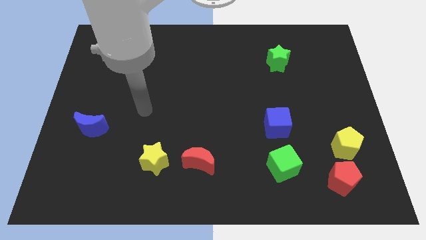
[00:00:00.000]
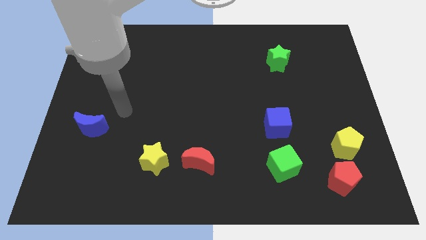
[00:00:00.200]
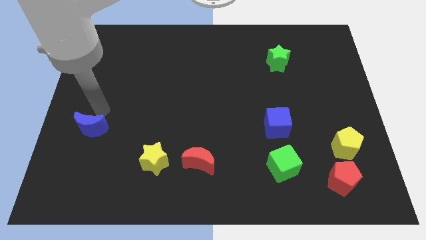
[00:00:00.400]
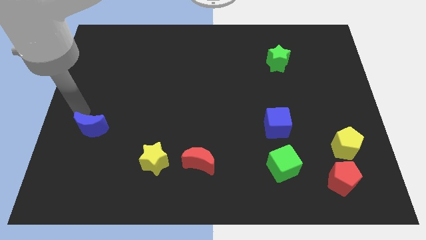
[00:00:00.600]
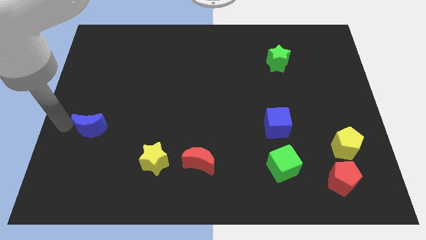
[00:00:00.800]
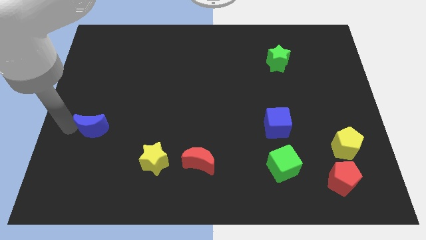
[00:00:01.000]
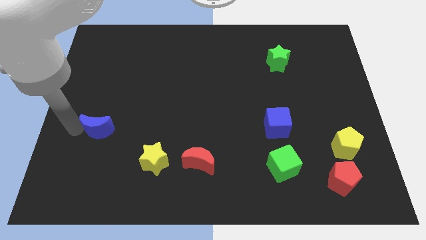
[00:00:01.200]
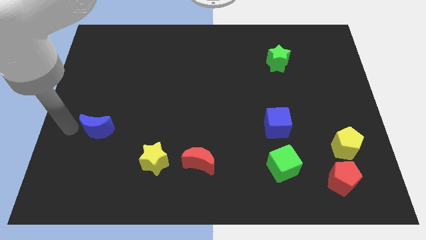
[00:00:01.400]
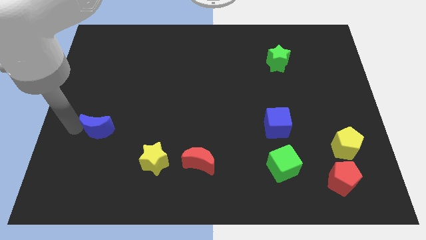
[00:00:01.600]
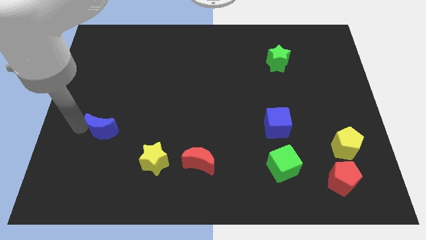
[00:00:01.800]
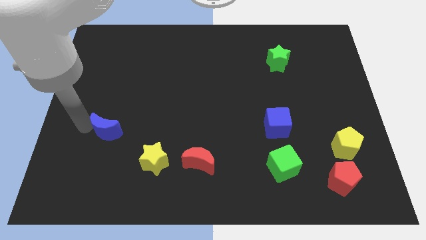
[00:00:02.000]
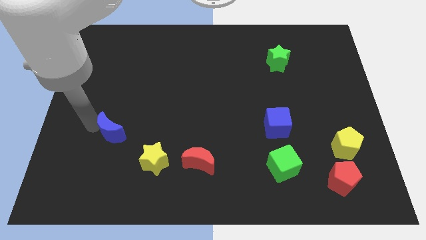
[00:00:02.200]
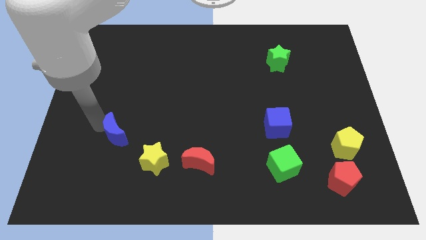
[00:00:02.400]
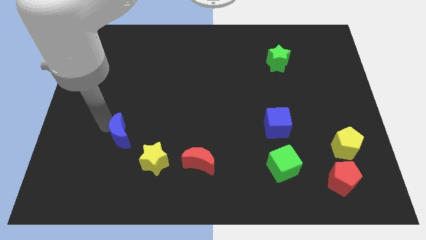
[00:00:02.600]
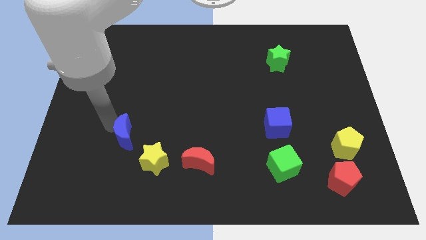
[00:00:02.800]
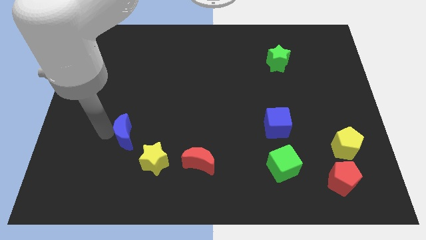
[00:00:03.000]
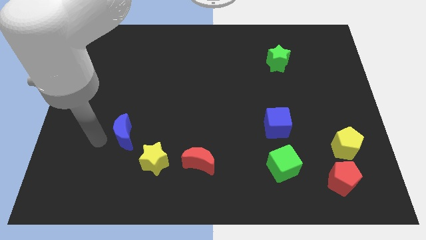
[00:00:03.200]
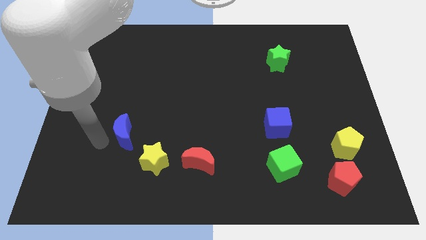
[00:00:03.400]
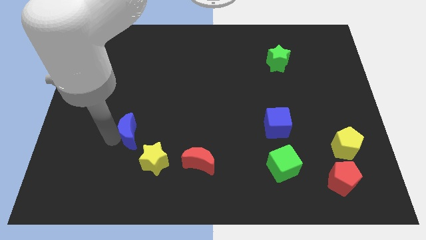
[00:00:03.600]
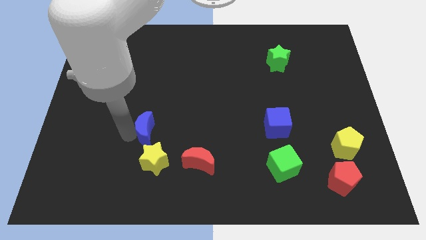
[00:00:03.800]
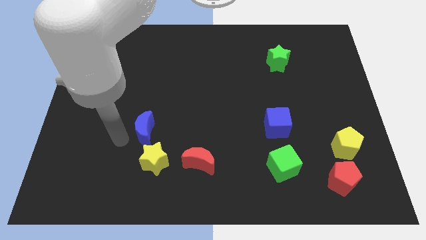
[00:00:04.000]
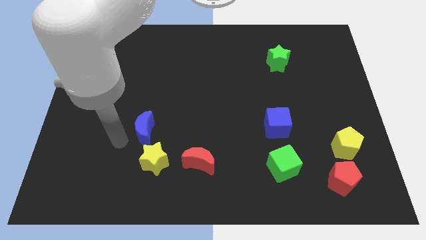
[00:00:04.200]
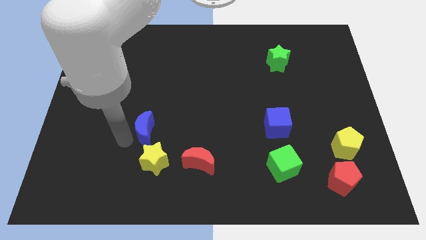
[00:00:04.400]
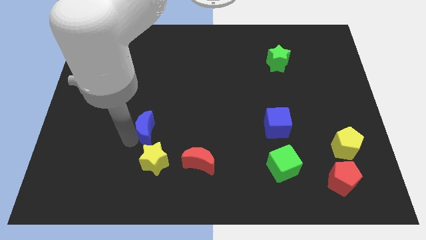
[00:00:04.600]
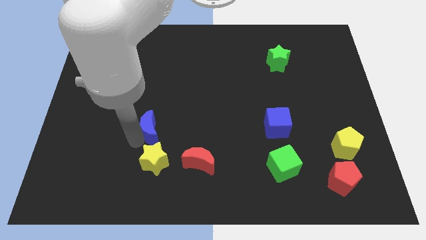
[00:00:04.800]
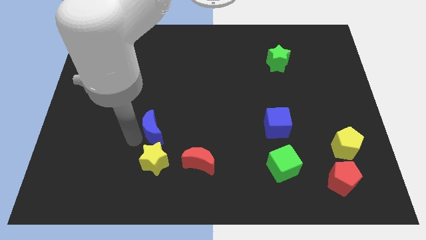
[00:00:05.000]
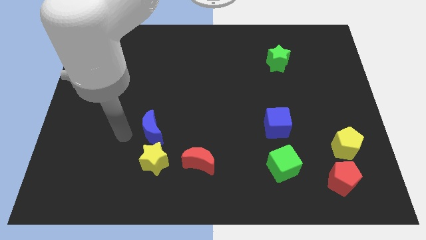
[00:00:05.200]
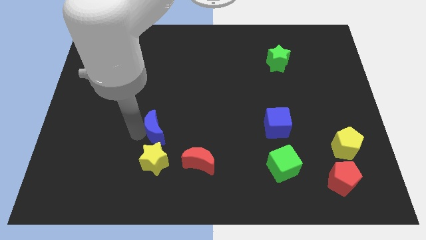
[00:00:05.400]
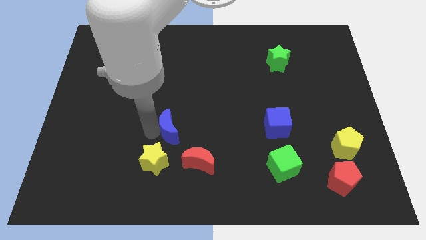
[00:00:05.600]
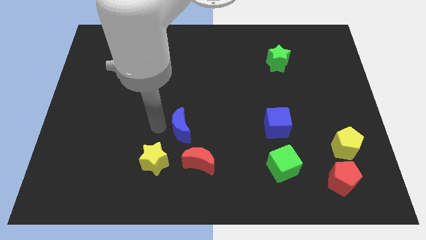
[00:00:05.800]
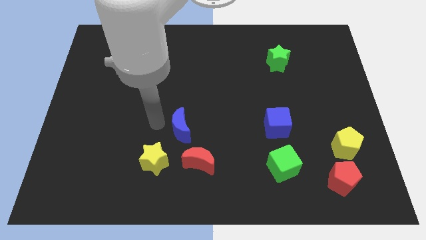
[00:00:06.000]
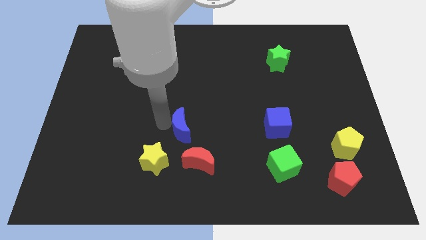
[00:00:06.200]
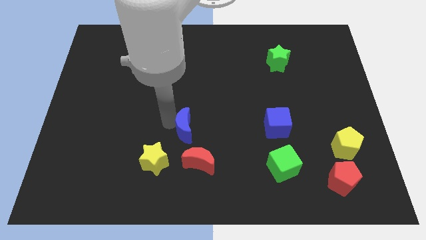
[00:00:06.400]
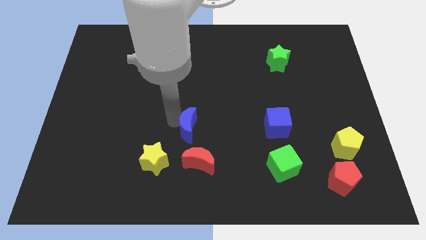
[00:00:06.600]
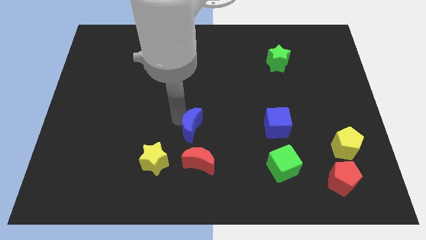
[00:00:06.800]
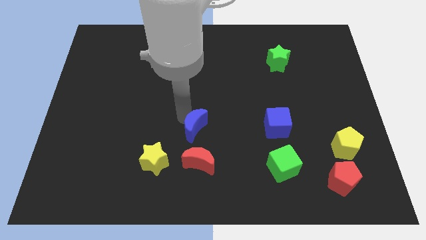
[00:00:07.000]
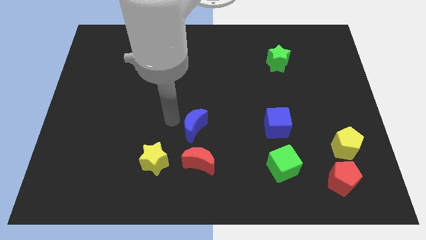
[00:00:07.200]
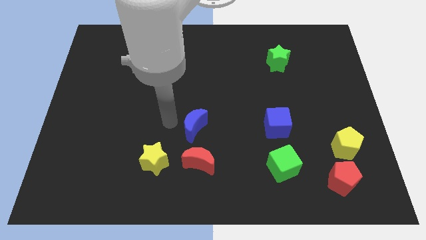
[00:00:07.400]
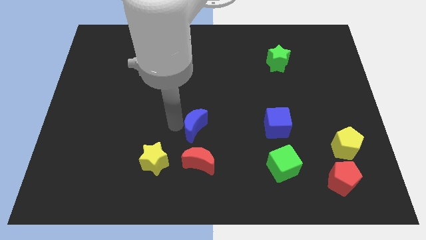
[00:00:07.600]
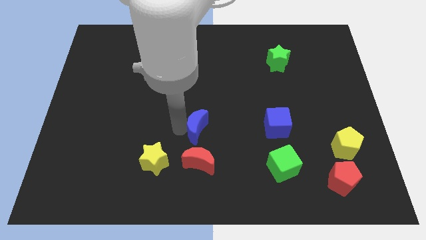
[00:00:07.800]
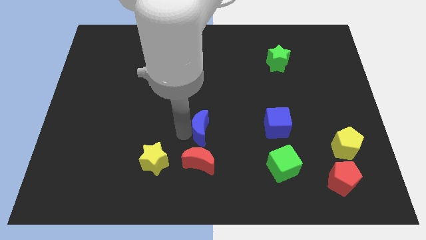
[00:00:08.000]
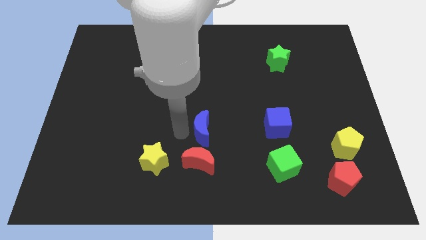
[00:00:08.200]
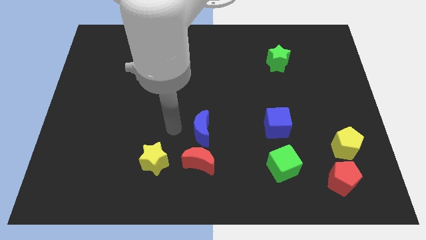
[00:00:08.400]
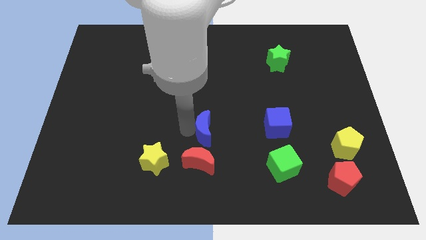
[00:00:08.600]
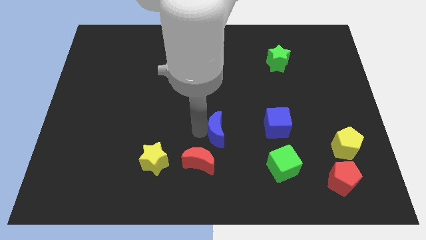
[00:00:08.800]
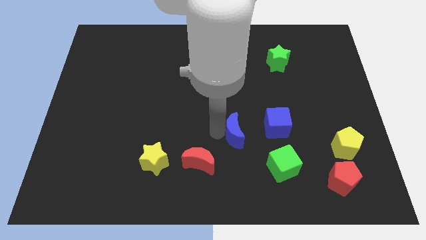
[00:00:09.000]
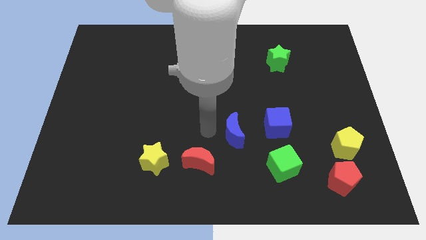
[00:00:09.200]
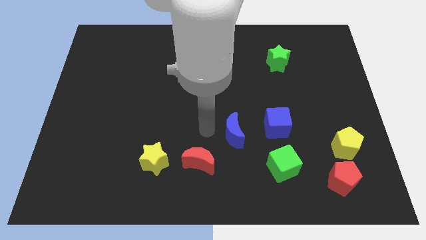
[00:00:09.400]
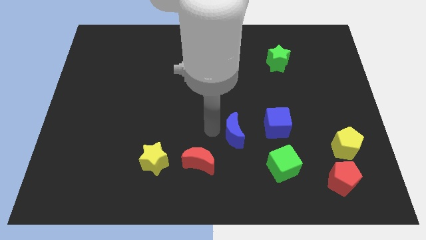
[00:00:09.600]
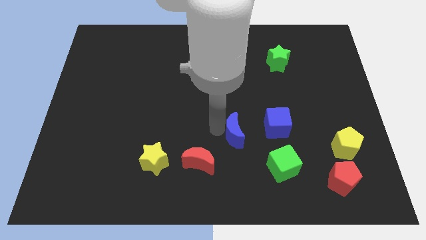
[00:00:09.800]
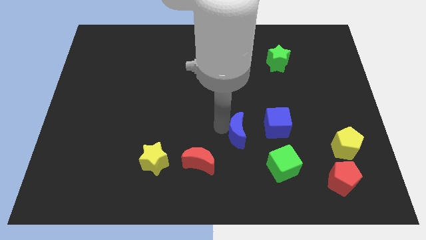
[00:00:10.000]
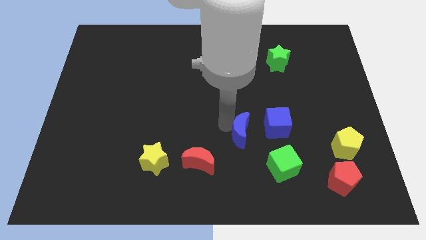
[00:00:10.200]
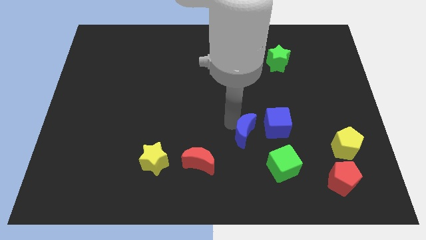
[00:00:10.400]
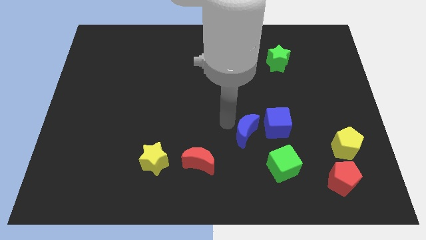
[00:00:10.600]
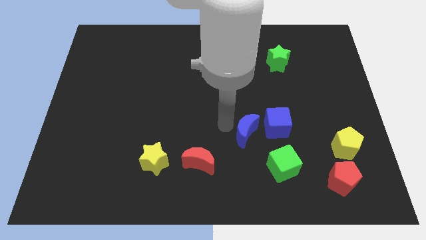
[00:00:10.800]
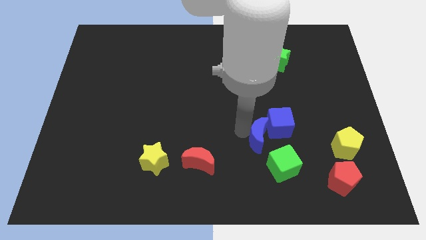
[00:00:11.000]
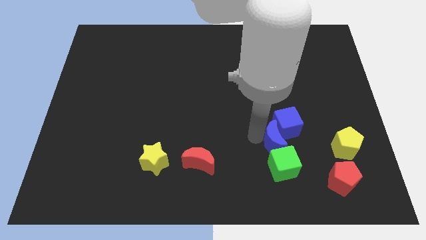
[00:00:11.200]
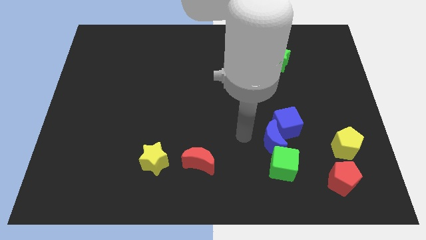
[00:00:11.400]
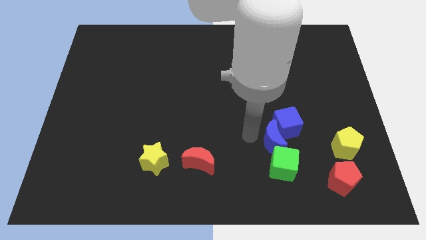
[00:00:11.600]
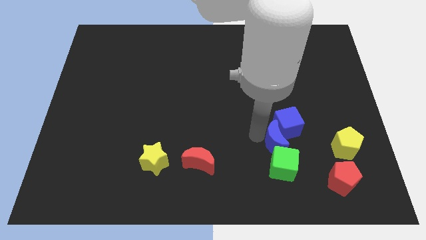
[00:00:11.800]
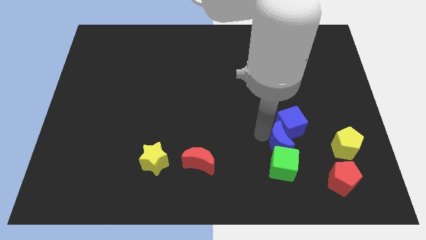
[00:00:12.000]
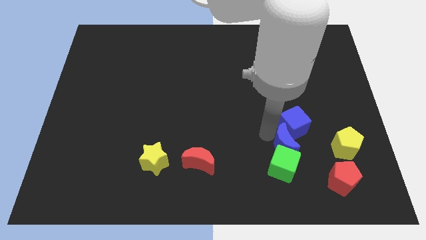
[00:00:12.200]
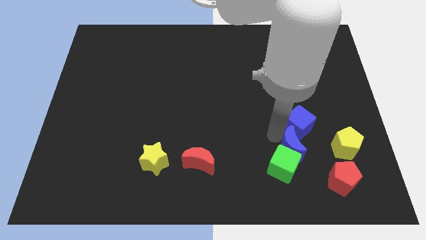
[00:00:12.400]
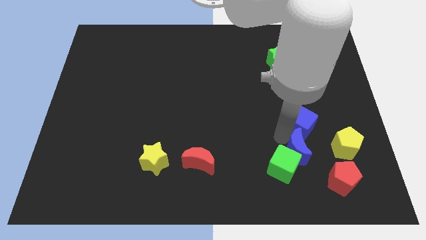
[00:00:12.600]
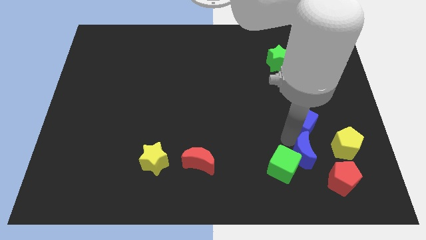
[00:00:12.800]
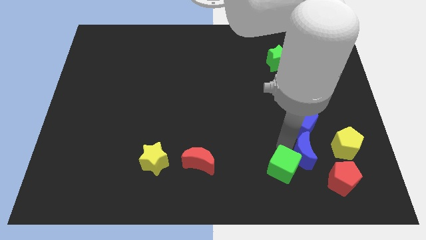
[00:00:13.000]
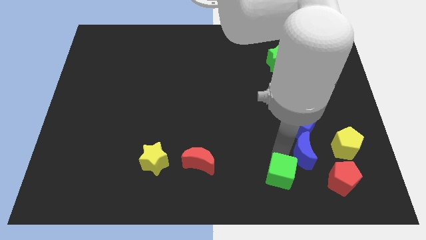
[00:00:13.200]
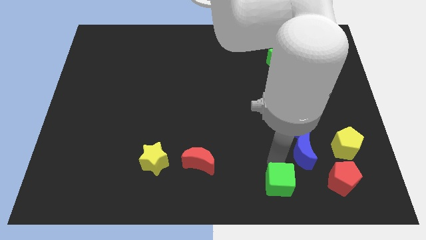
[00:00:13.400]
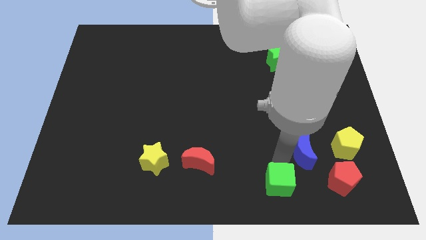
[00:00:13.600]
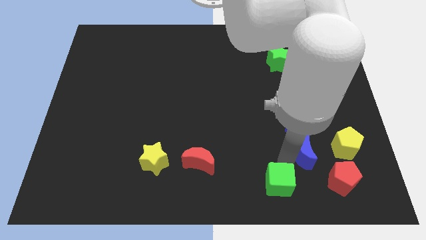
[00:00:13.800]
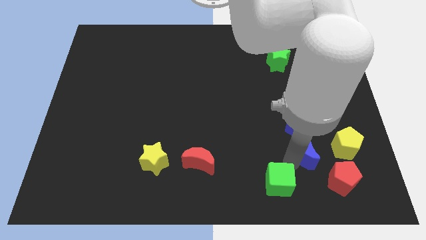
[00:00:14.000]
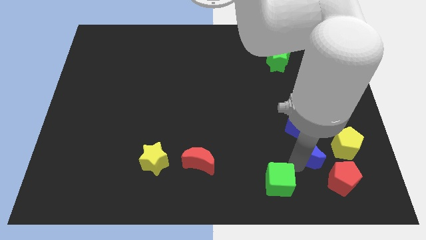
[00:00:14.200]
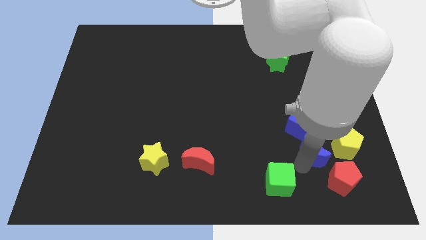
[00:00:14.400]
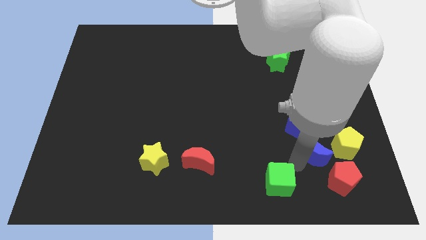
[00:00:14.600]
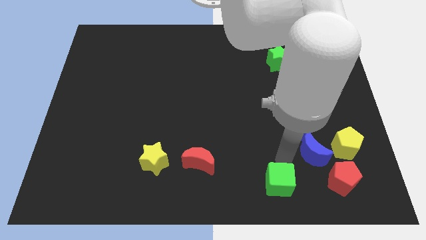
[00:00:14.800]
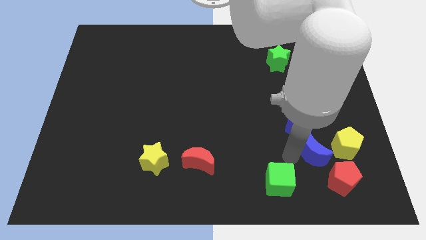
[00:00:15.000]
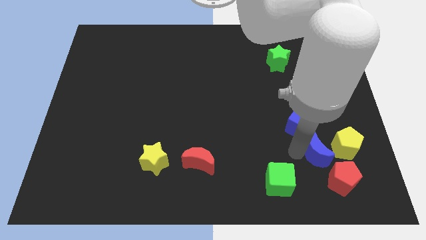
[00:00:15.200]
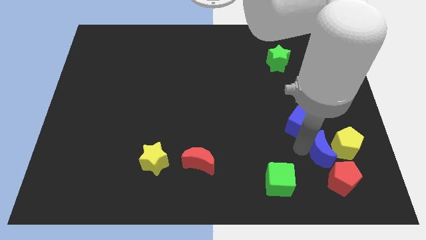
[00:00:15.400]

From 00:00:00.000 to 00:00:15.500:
move the blue moon towards the yellow pentagon
